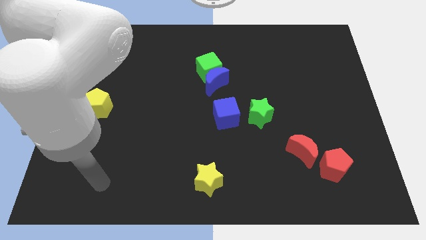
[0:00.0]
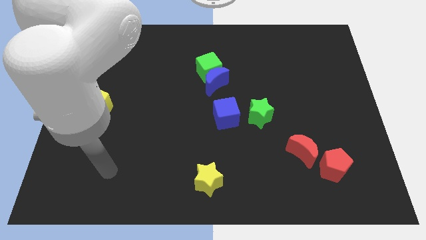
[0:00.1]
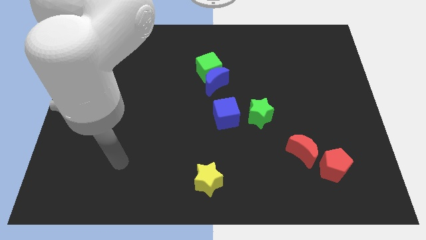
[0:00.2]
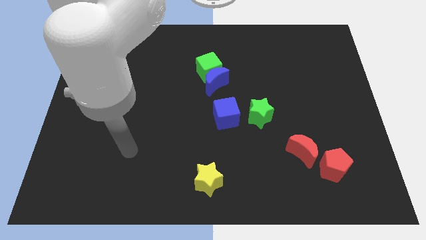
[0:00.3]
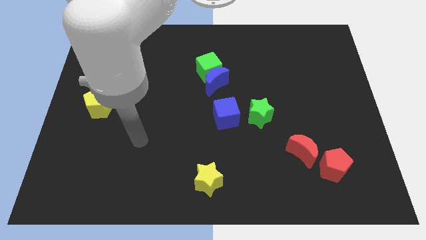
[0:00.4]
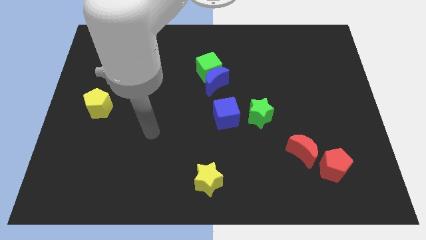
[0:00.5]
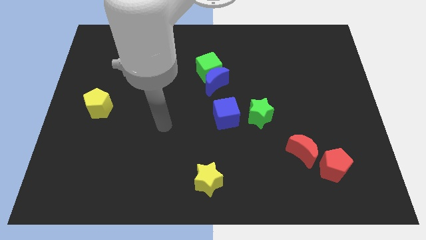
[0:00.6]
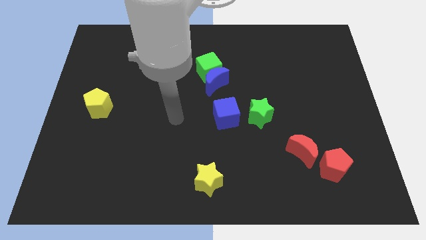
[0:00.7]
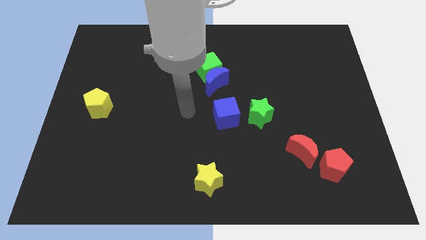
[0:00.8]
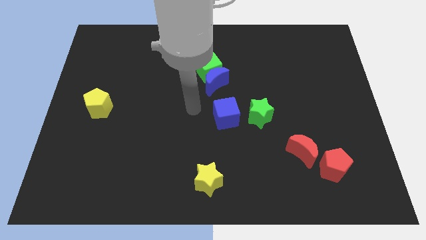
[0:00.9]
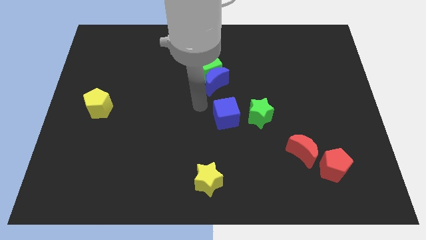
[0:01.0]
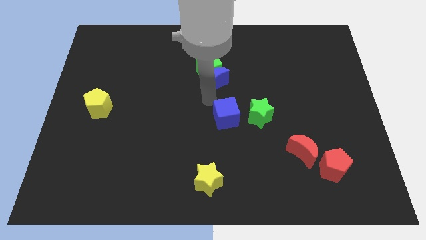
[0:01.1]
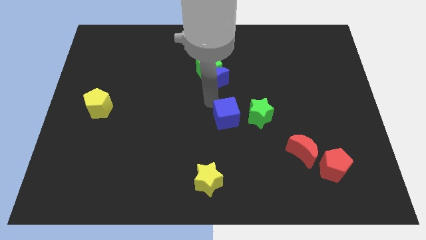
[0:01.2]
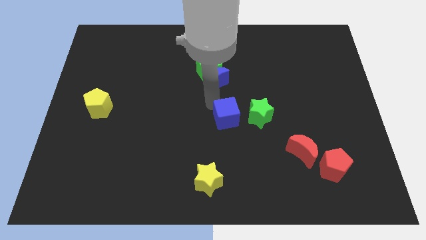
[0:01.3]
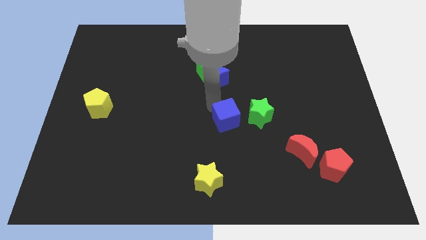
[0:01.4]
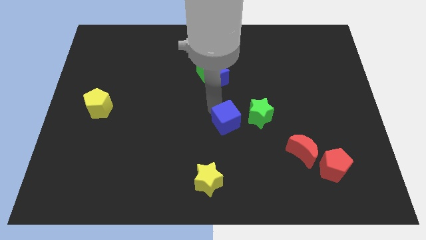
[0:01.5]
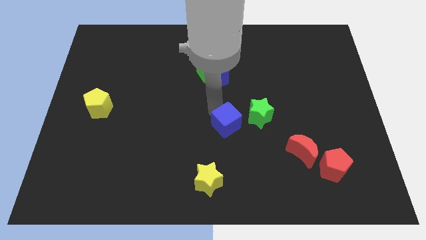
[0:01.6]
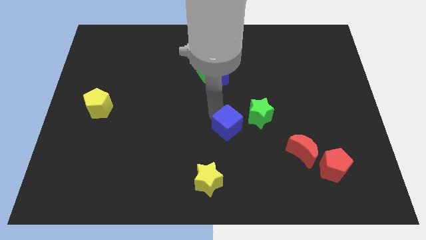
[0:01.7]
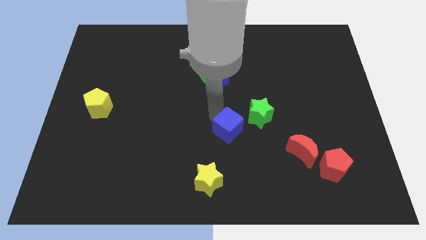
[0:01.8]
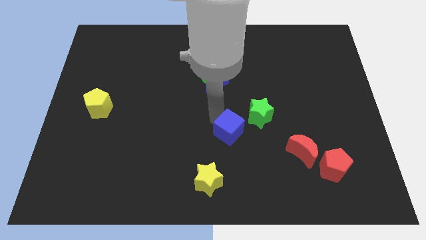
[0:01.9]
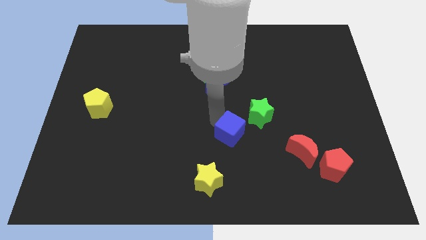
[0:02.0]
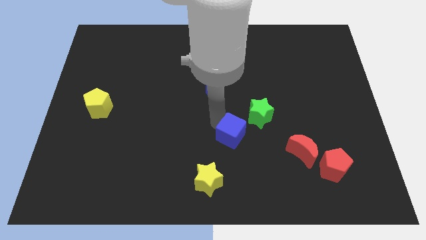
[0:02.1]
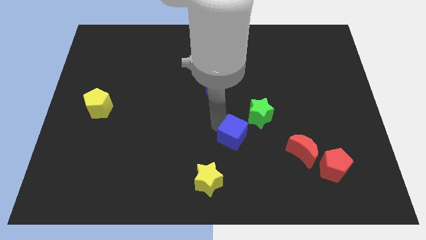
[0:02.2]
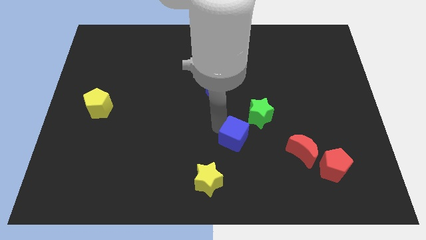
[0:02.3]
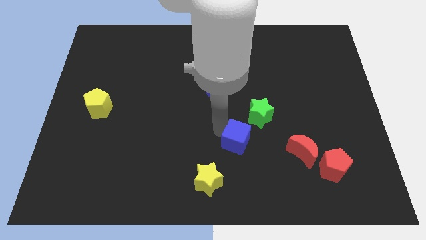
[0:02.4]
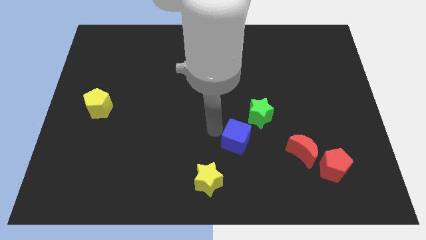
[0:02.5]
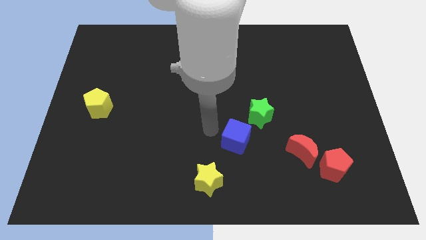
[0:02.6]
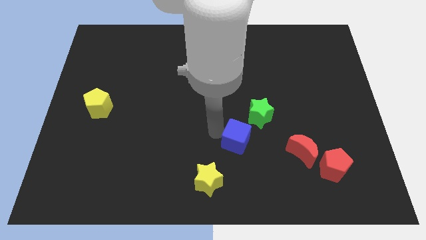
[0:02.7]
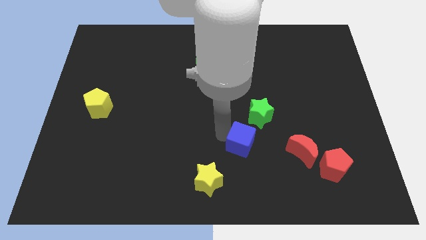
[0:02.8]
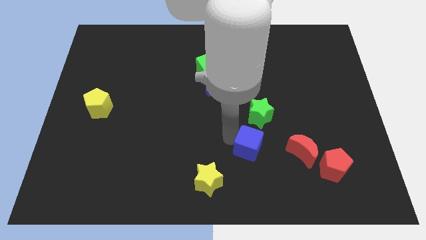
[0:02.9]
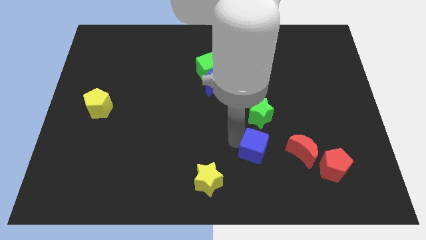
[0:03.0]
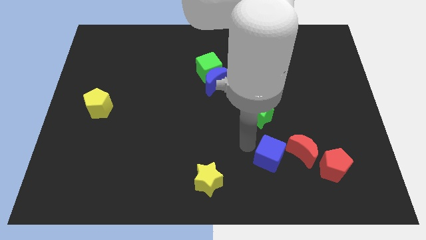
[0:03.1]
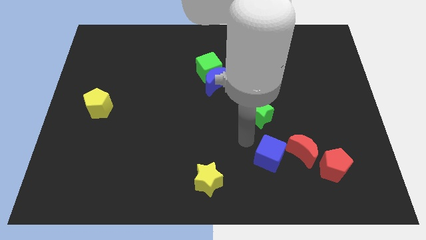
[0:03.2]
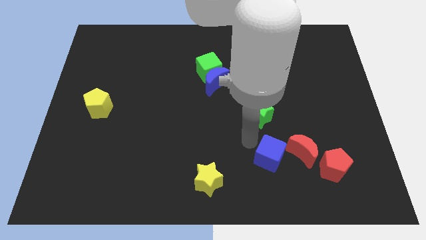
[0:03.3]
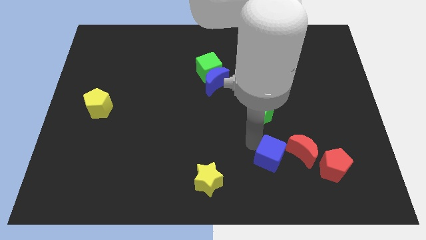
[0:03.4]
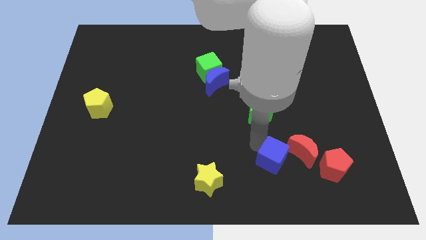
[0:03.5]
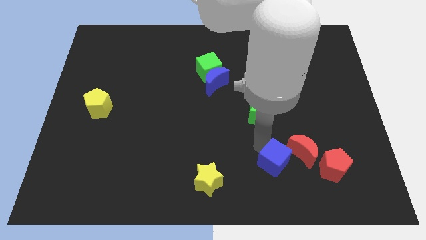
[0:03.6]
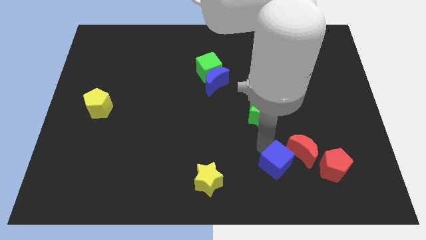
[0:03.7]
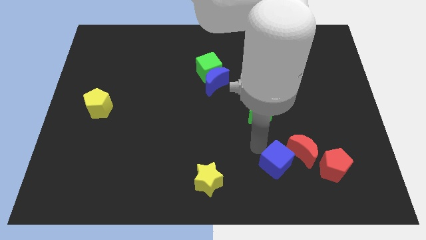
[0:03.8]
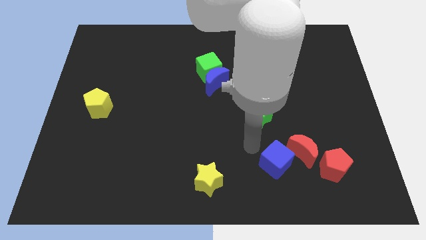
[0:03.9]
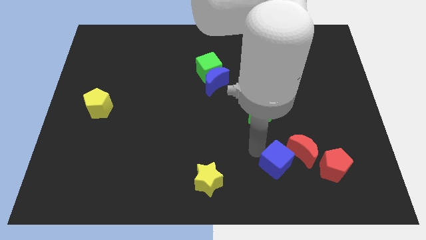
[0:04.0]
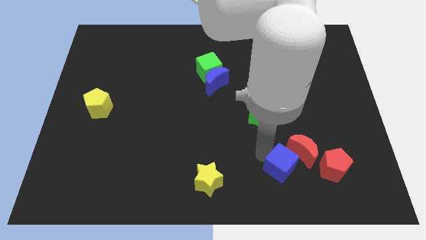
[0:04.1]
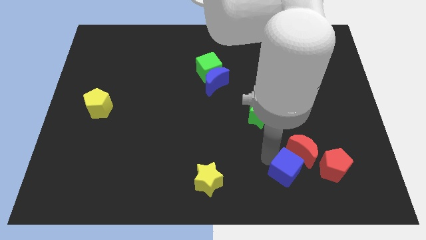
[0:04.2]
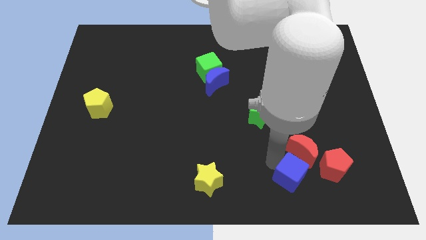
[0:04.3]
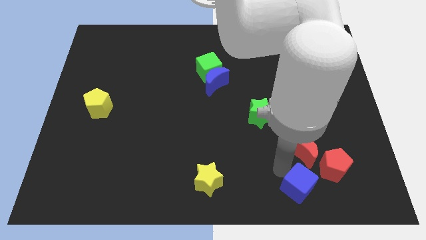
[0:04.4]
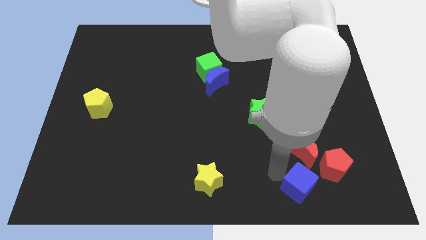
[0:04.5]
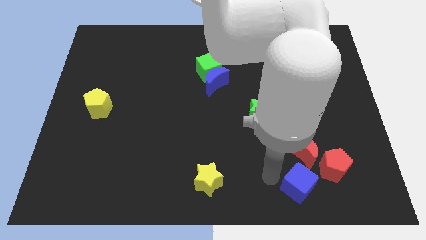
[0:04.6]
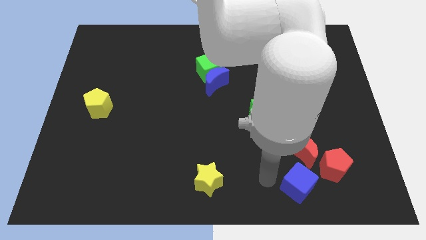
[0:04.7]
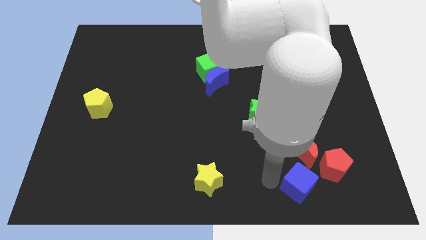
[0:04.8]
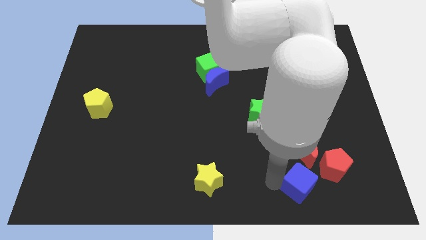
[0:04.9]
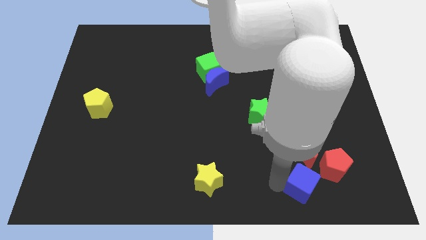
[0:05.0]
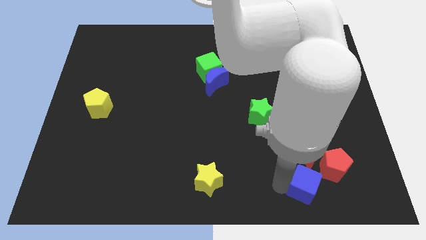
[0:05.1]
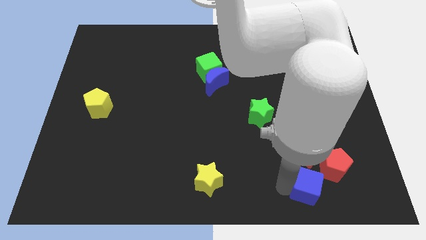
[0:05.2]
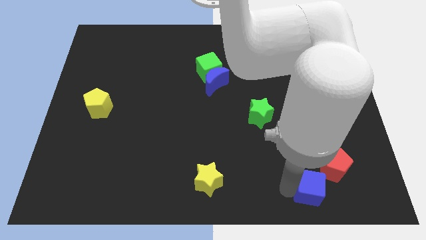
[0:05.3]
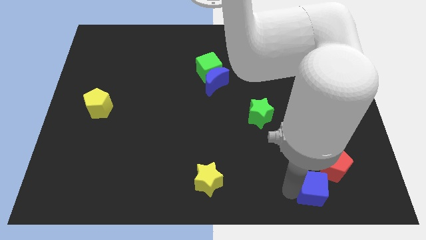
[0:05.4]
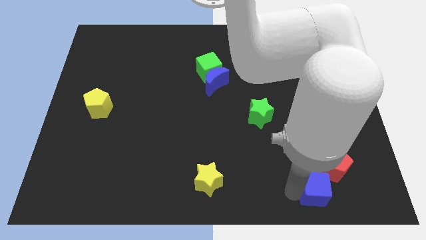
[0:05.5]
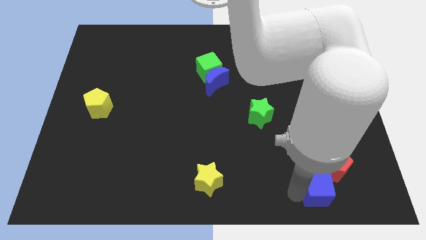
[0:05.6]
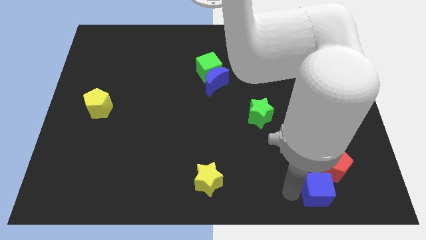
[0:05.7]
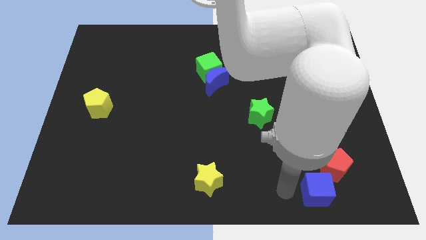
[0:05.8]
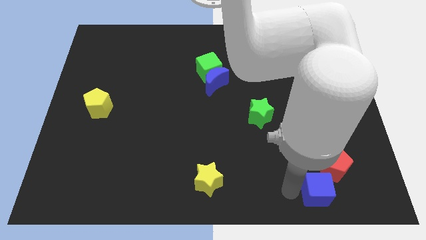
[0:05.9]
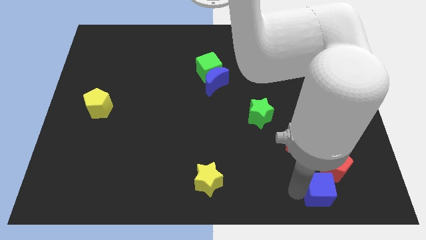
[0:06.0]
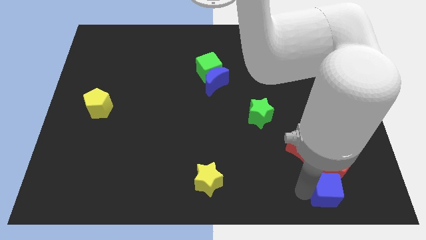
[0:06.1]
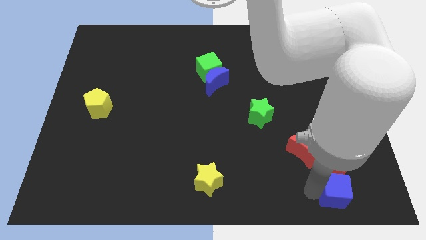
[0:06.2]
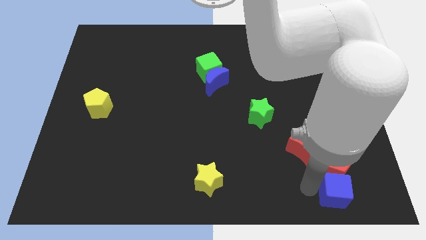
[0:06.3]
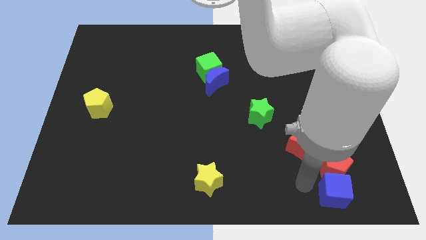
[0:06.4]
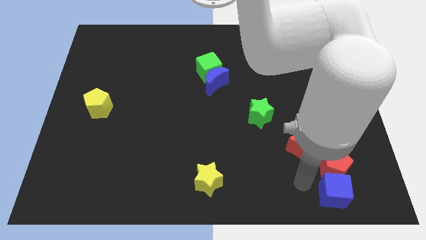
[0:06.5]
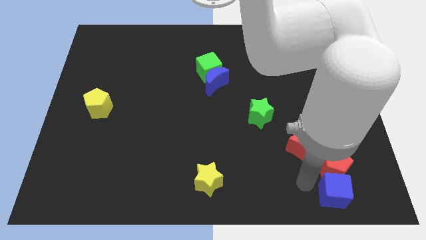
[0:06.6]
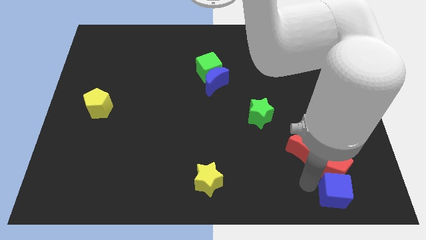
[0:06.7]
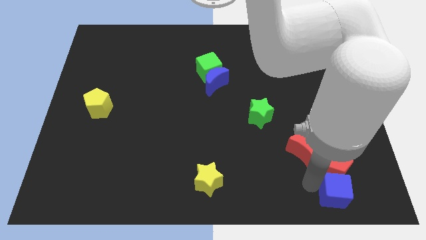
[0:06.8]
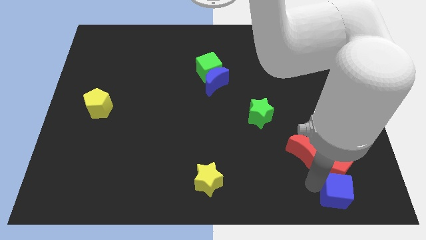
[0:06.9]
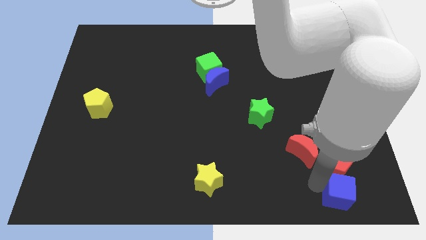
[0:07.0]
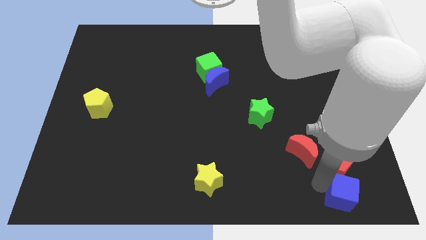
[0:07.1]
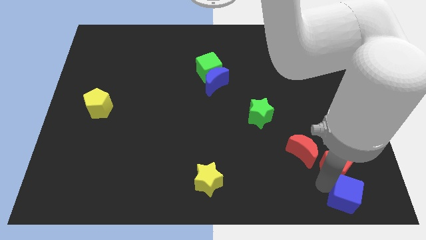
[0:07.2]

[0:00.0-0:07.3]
put the blue cube to the bottom right corner

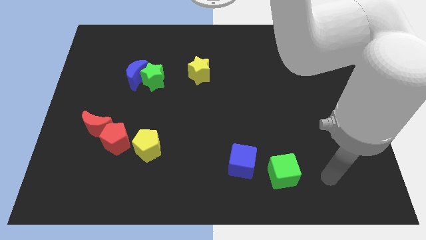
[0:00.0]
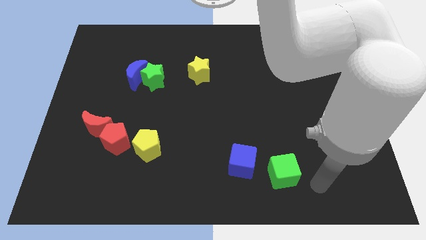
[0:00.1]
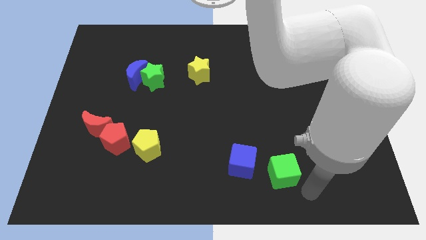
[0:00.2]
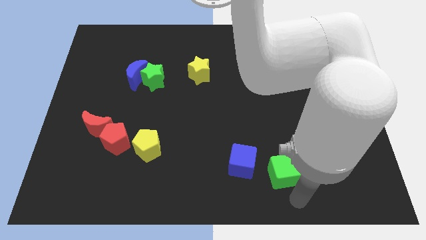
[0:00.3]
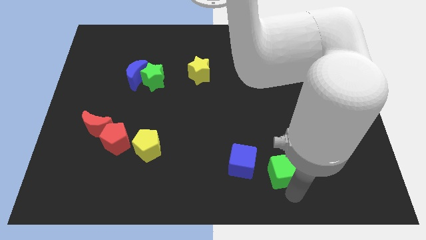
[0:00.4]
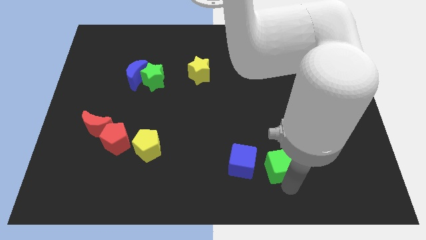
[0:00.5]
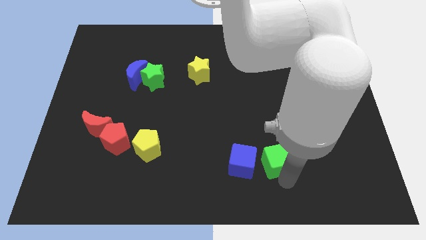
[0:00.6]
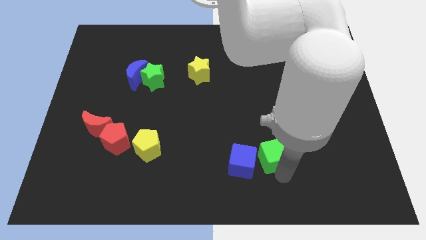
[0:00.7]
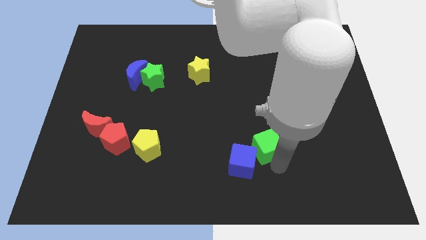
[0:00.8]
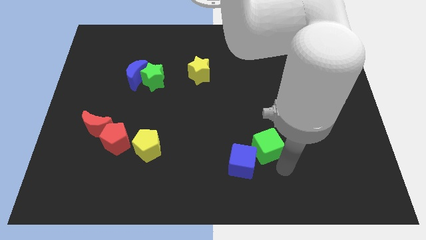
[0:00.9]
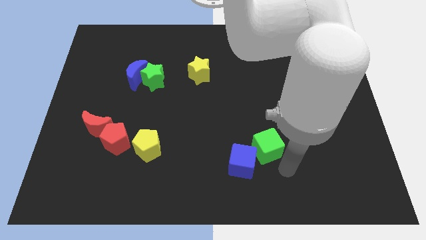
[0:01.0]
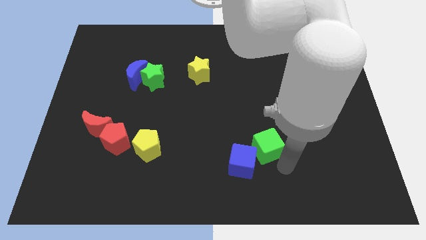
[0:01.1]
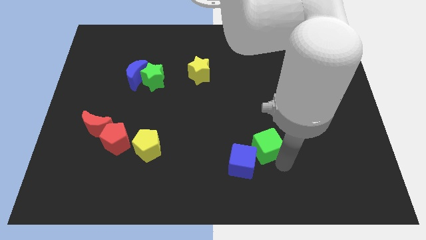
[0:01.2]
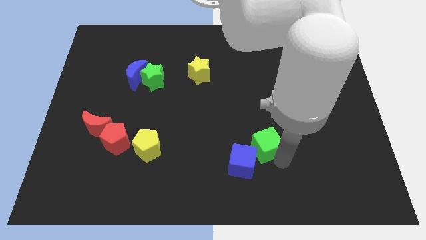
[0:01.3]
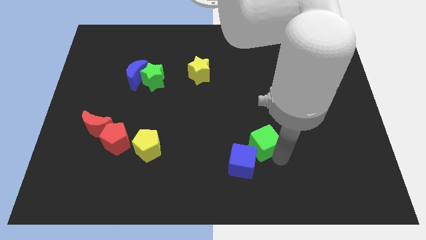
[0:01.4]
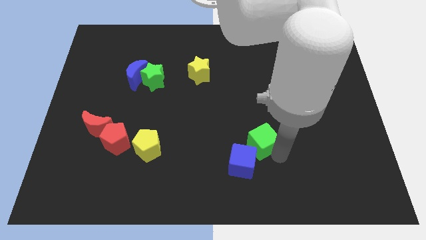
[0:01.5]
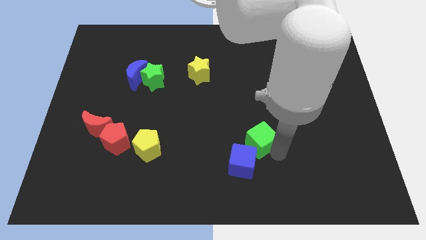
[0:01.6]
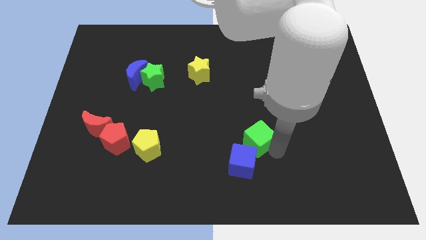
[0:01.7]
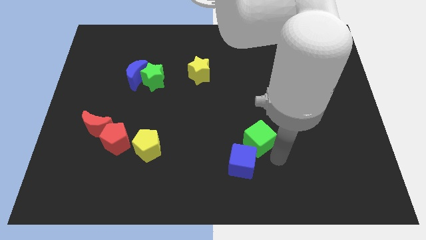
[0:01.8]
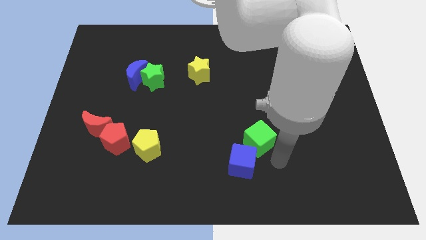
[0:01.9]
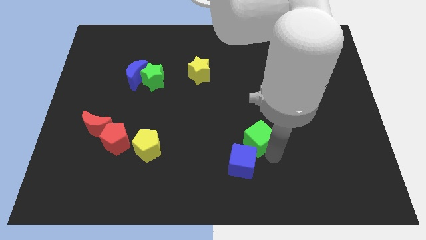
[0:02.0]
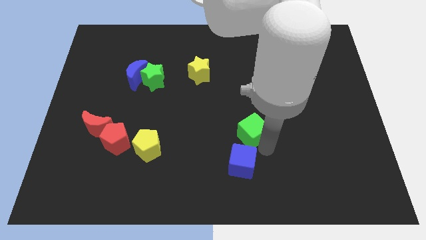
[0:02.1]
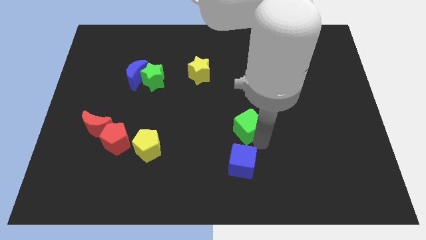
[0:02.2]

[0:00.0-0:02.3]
put the green cube to the middle of the board
